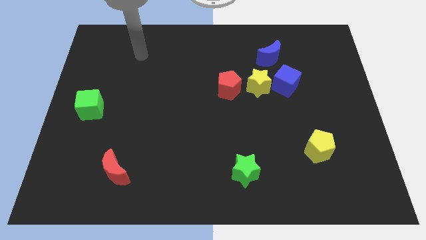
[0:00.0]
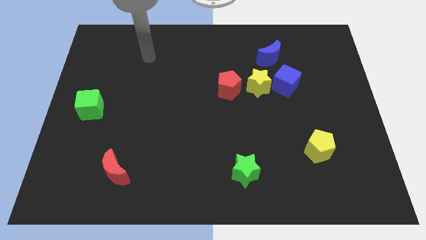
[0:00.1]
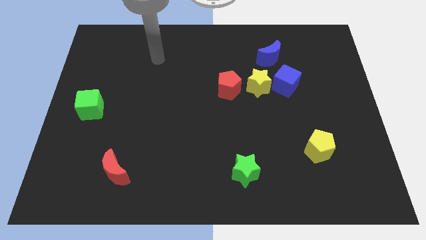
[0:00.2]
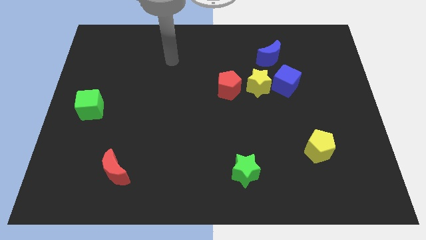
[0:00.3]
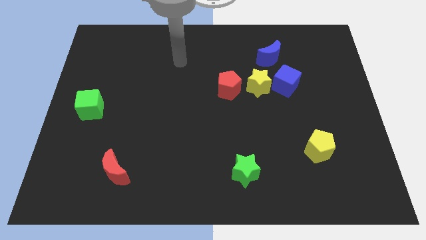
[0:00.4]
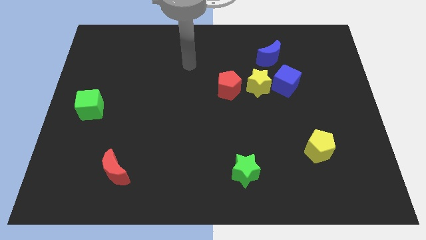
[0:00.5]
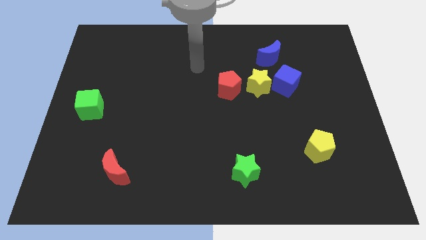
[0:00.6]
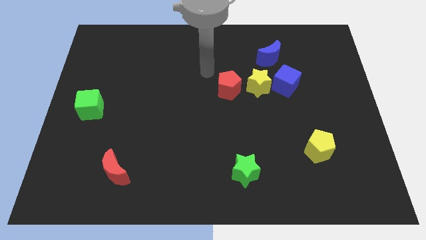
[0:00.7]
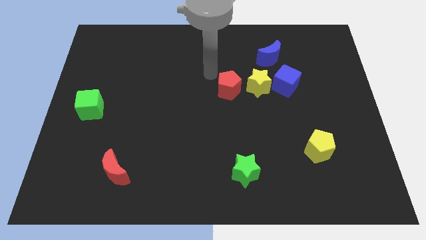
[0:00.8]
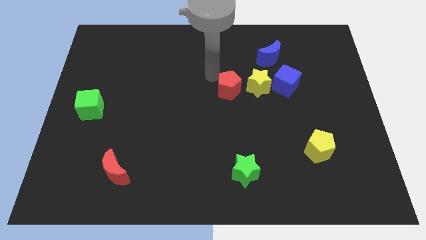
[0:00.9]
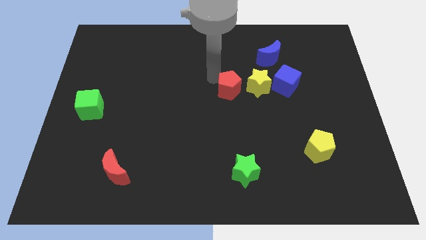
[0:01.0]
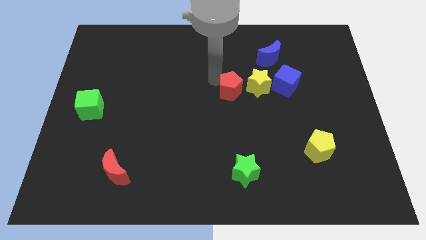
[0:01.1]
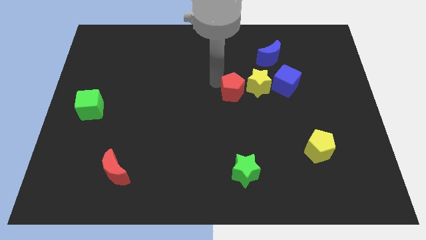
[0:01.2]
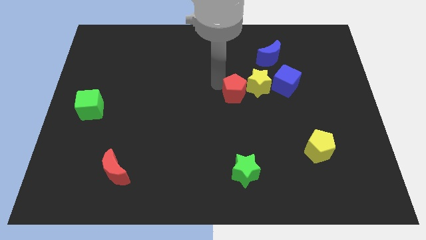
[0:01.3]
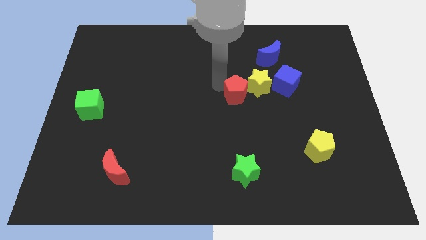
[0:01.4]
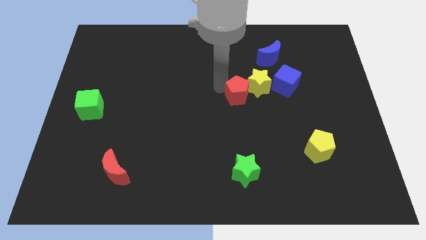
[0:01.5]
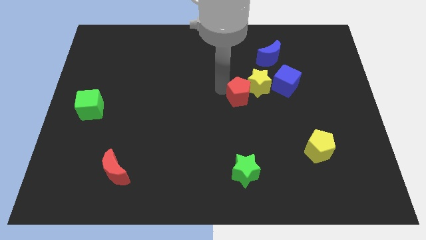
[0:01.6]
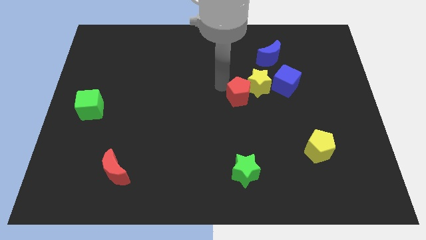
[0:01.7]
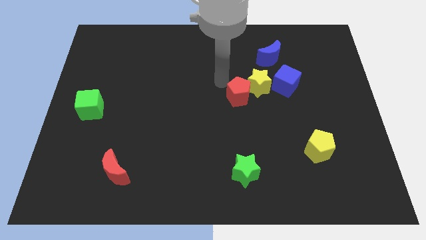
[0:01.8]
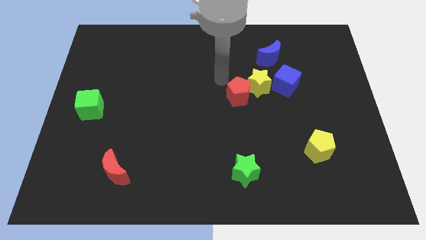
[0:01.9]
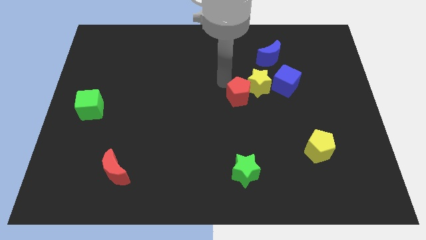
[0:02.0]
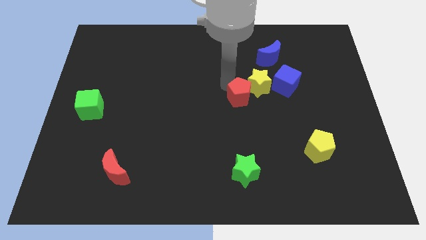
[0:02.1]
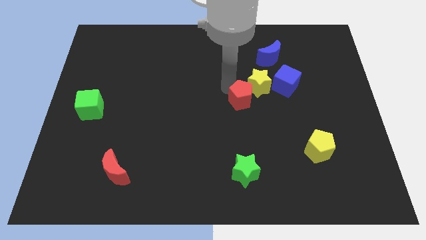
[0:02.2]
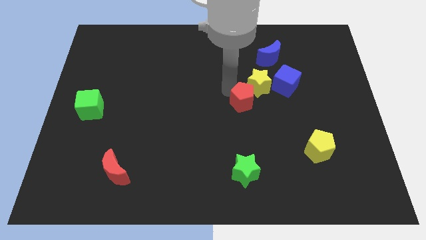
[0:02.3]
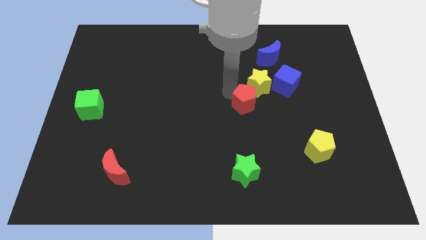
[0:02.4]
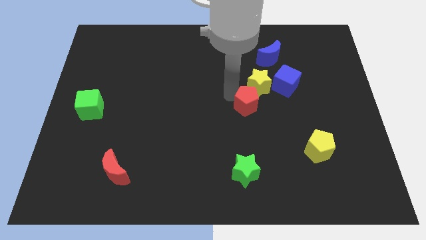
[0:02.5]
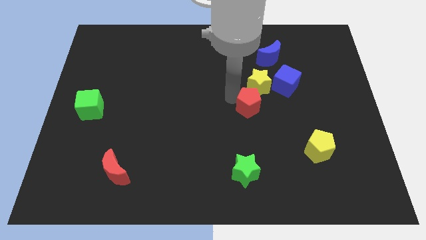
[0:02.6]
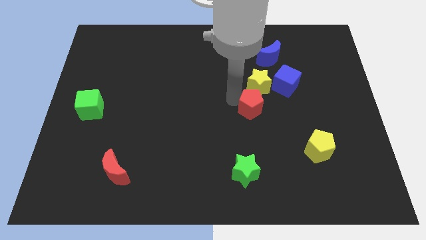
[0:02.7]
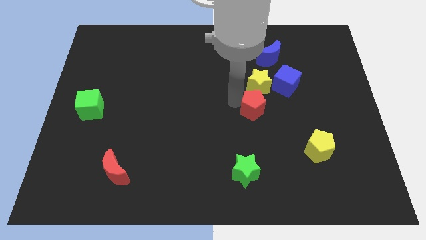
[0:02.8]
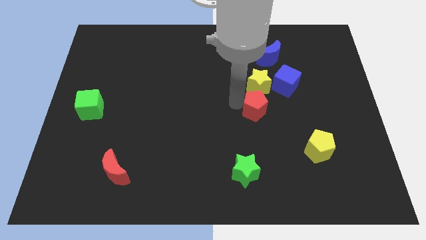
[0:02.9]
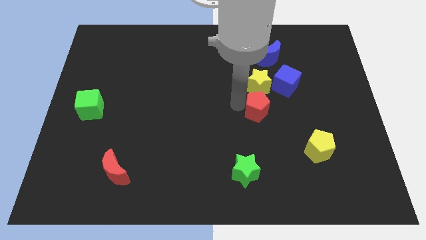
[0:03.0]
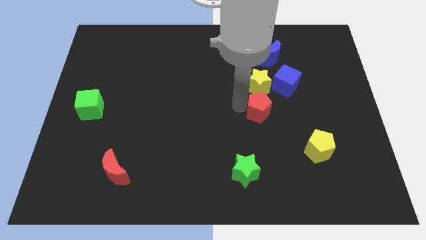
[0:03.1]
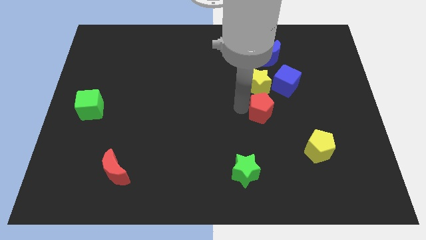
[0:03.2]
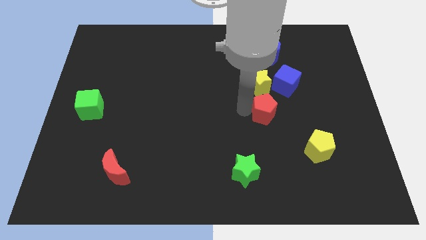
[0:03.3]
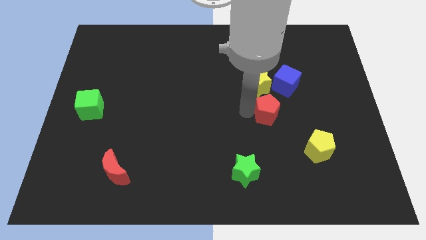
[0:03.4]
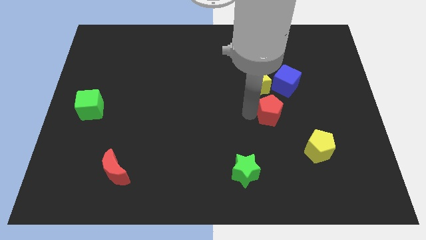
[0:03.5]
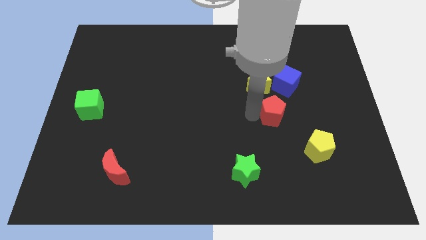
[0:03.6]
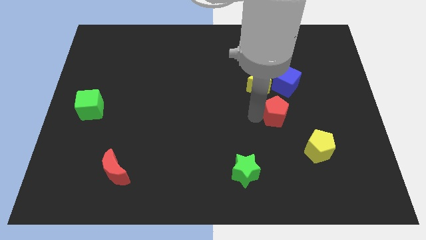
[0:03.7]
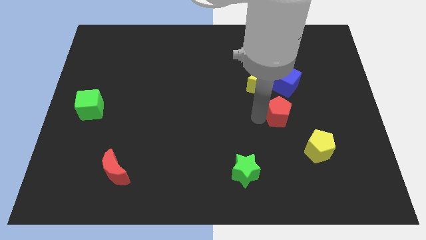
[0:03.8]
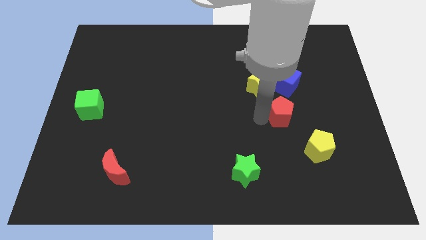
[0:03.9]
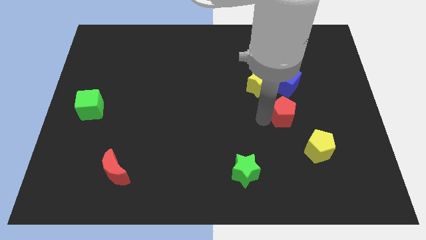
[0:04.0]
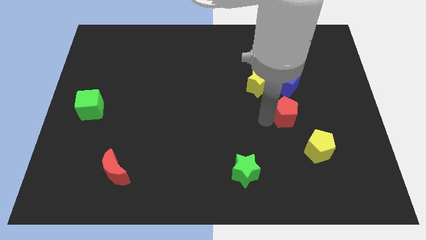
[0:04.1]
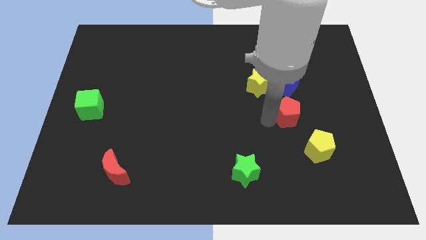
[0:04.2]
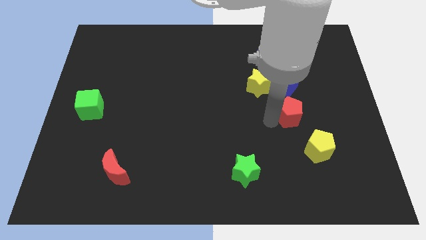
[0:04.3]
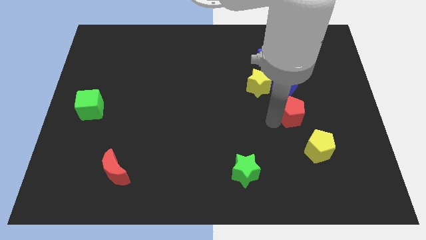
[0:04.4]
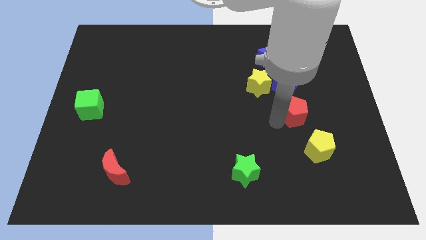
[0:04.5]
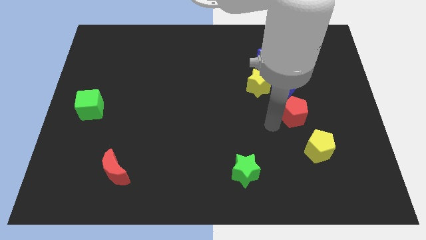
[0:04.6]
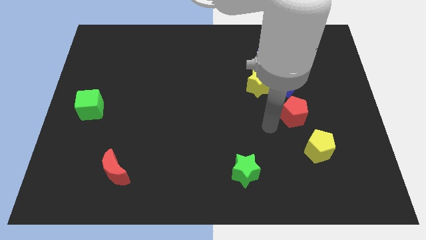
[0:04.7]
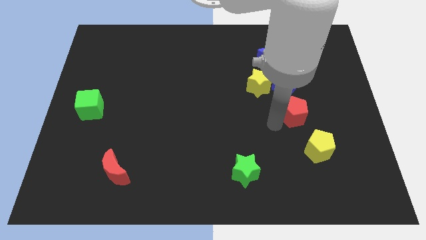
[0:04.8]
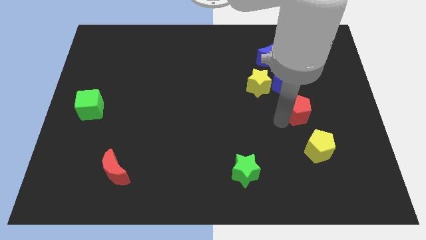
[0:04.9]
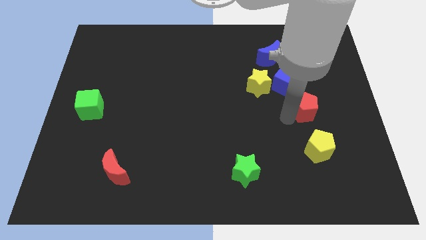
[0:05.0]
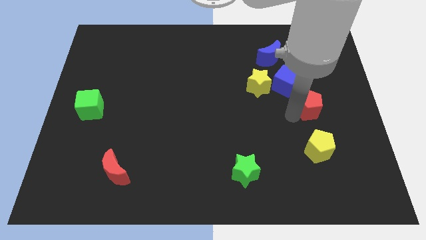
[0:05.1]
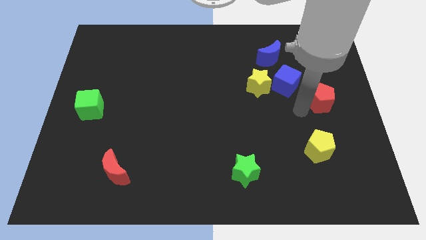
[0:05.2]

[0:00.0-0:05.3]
slide the red pentagon to the right side of the board

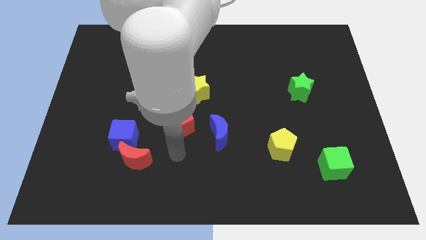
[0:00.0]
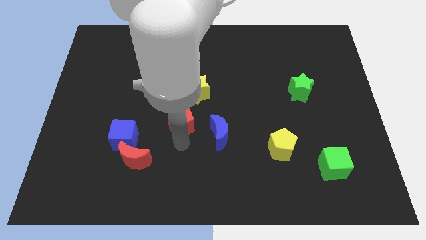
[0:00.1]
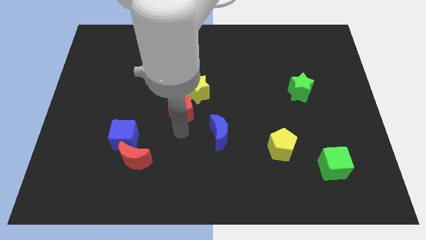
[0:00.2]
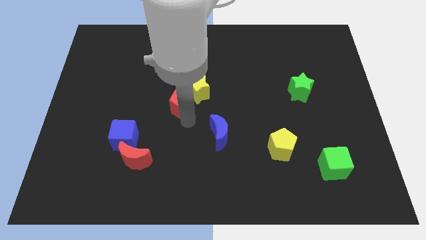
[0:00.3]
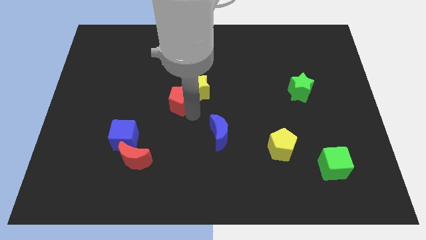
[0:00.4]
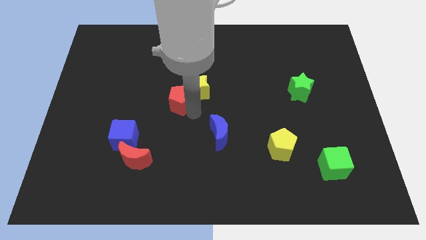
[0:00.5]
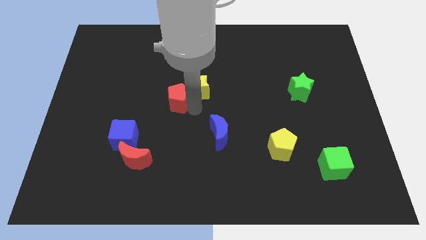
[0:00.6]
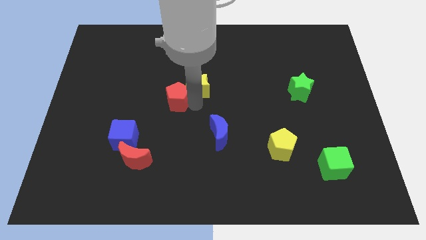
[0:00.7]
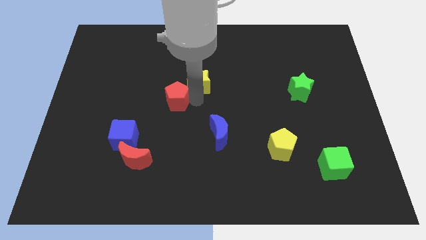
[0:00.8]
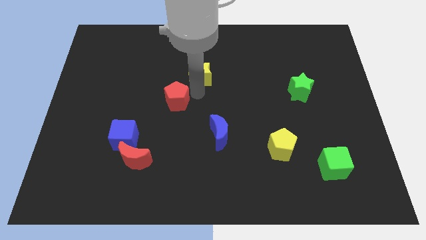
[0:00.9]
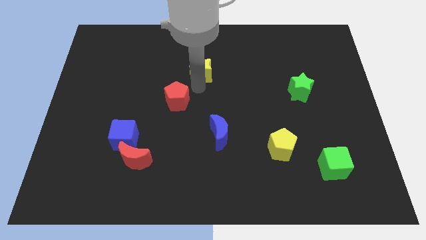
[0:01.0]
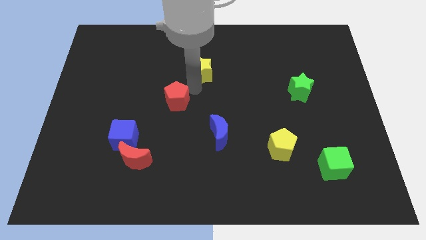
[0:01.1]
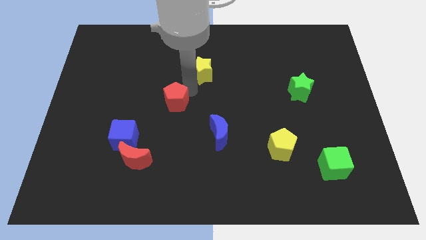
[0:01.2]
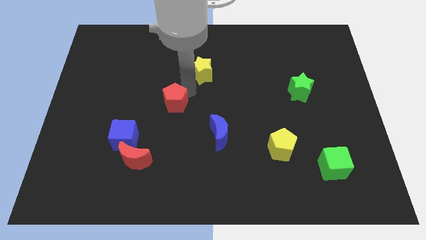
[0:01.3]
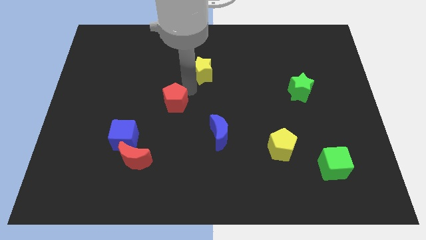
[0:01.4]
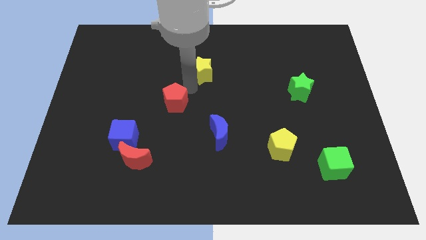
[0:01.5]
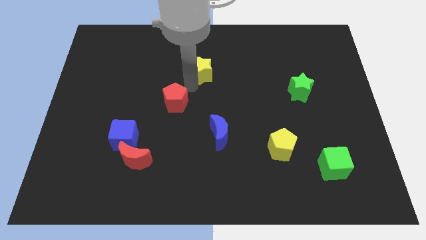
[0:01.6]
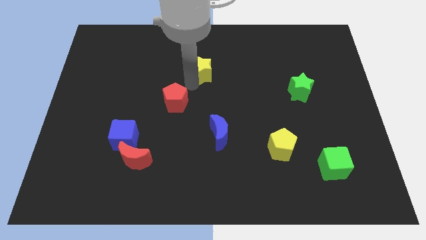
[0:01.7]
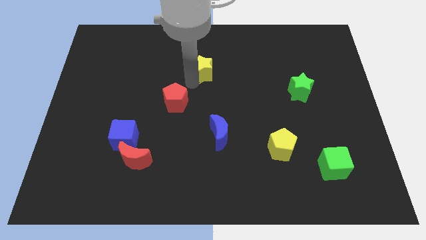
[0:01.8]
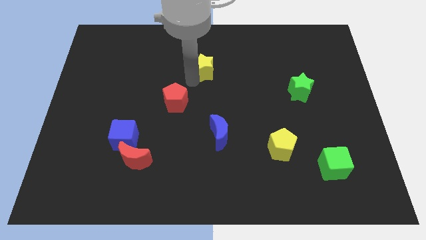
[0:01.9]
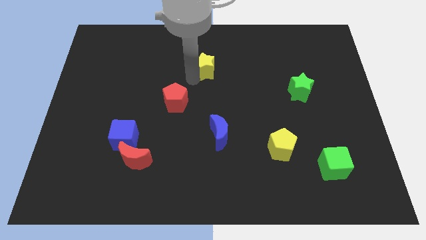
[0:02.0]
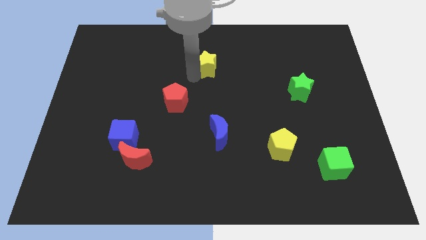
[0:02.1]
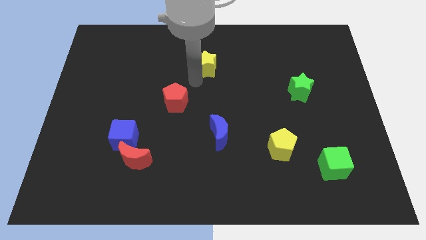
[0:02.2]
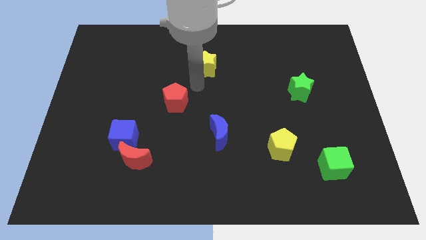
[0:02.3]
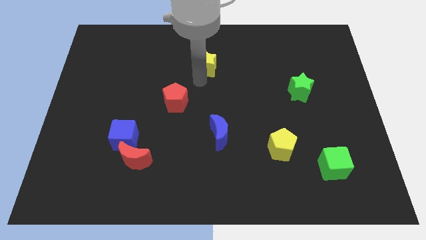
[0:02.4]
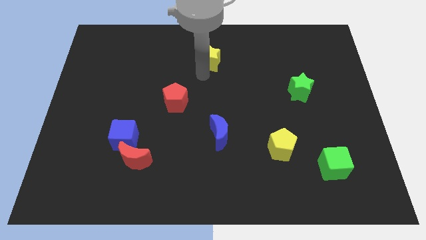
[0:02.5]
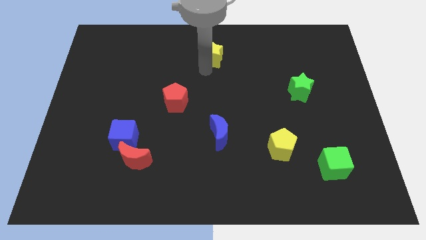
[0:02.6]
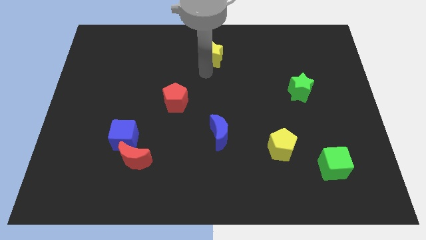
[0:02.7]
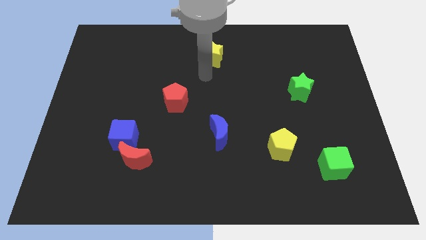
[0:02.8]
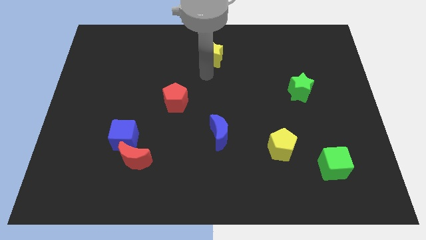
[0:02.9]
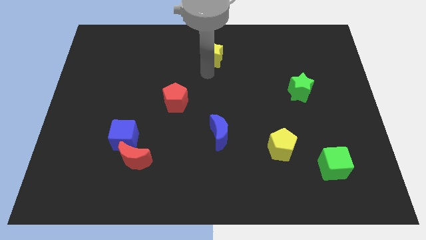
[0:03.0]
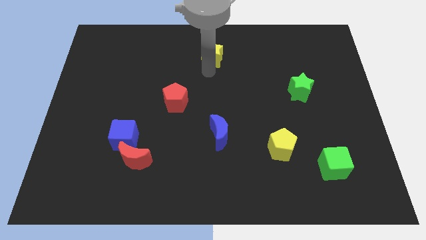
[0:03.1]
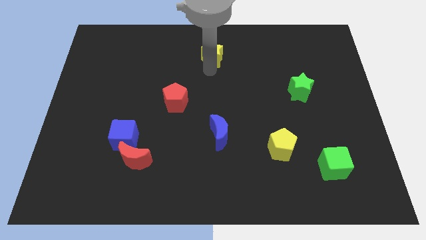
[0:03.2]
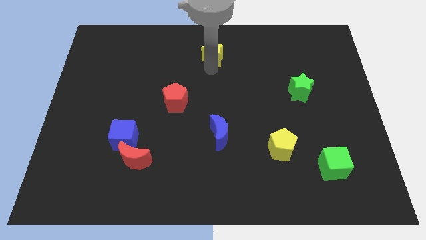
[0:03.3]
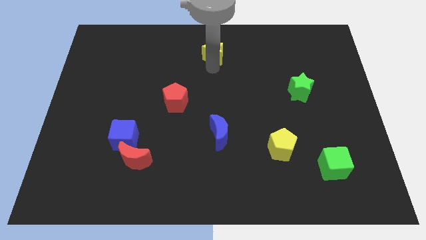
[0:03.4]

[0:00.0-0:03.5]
move the yellow star to the top side
